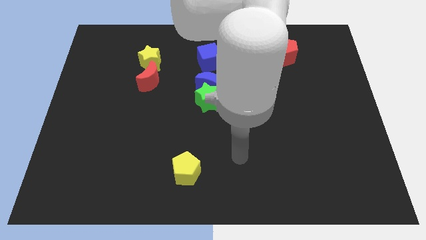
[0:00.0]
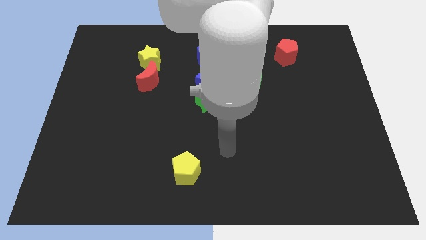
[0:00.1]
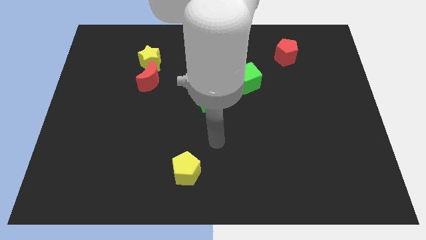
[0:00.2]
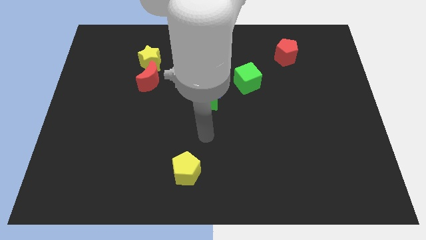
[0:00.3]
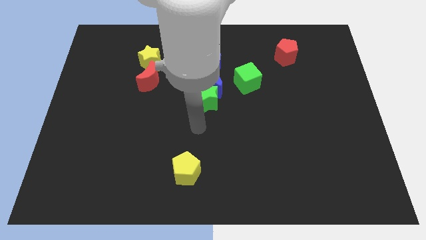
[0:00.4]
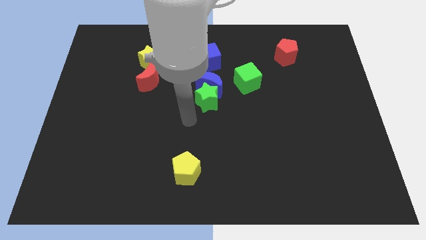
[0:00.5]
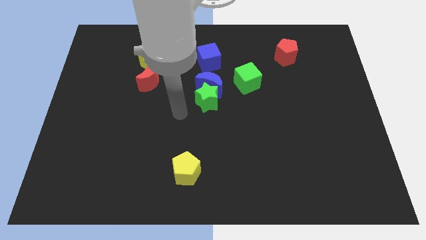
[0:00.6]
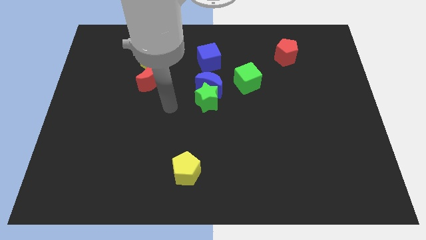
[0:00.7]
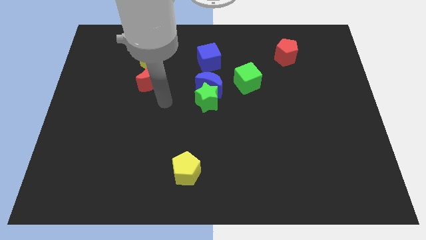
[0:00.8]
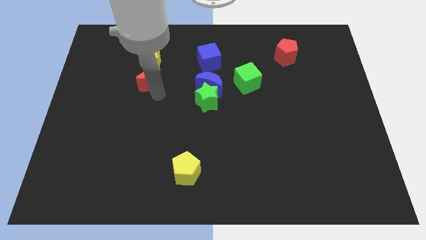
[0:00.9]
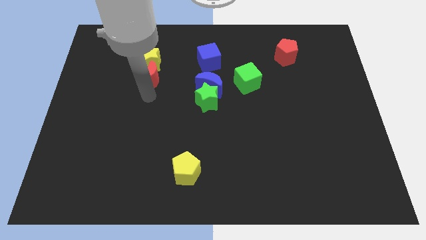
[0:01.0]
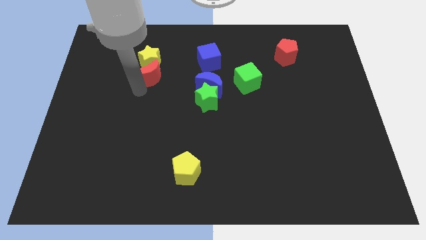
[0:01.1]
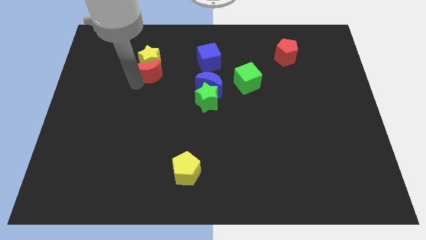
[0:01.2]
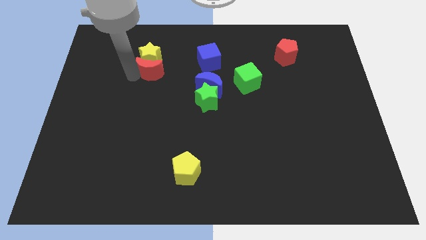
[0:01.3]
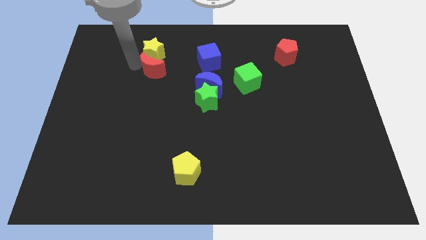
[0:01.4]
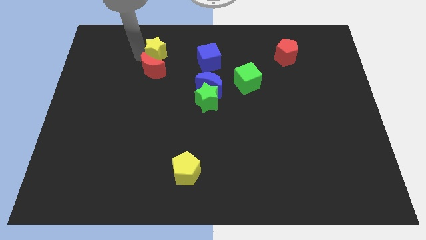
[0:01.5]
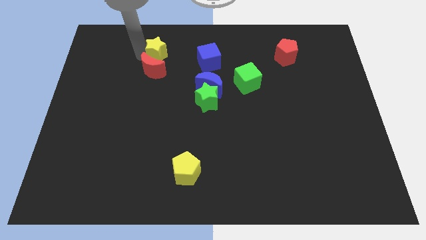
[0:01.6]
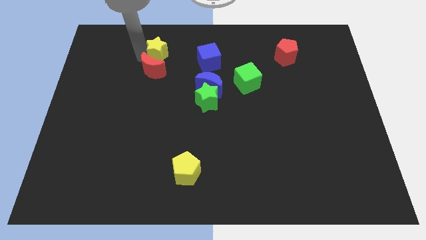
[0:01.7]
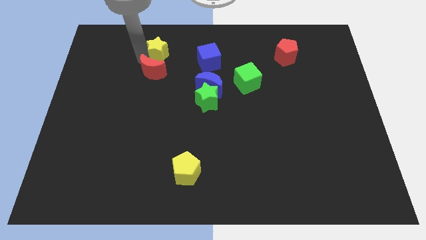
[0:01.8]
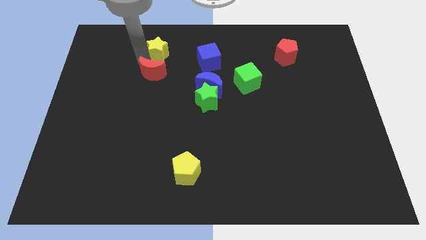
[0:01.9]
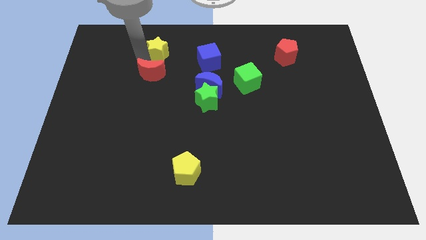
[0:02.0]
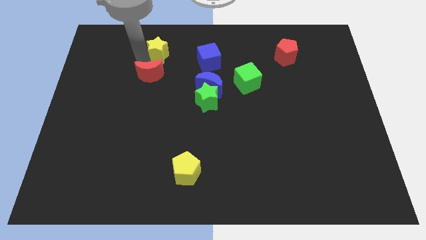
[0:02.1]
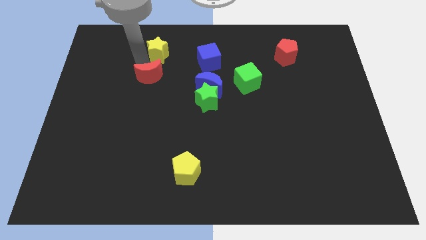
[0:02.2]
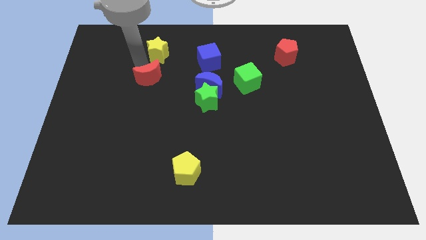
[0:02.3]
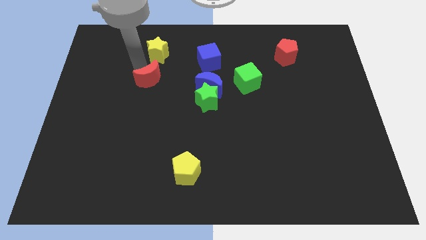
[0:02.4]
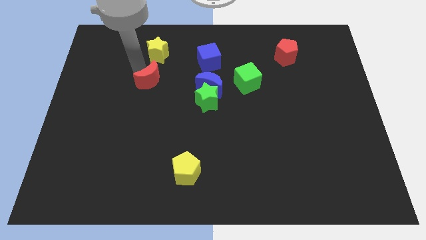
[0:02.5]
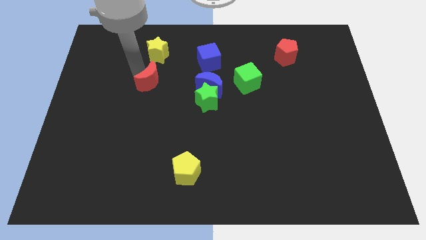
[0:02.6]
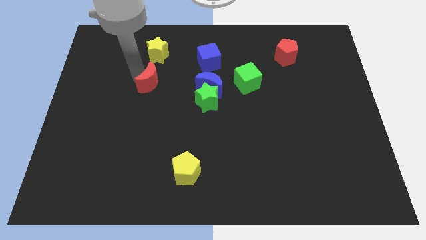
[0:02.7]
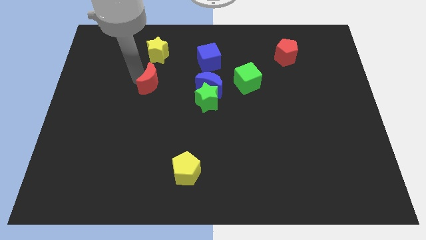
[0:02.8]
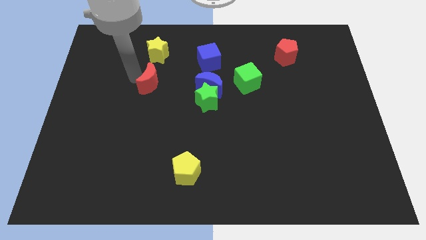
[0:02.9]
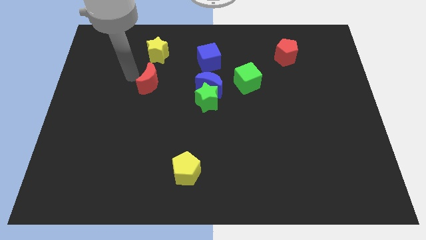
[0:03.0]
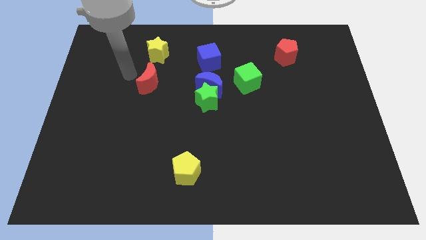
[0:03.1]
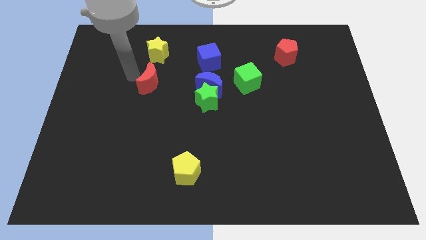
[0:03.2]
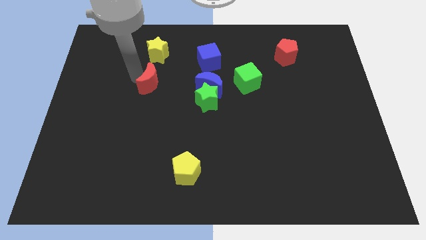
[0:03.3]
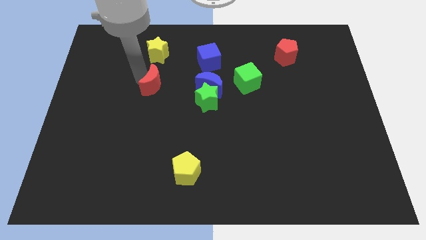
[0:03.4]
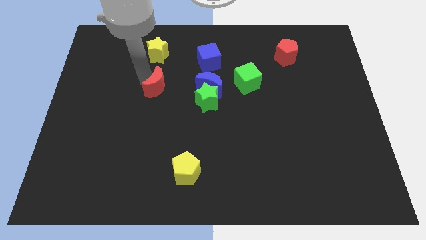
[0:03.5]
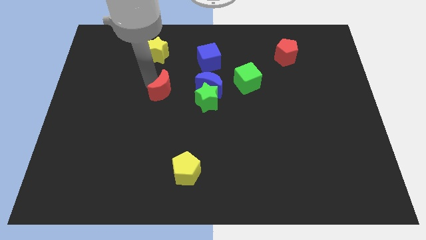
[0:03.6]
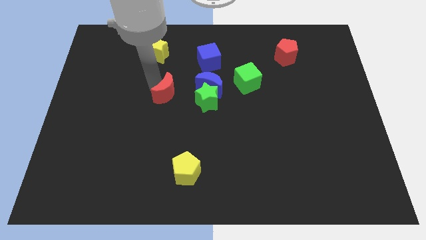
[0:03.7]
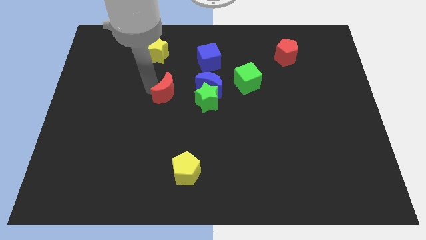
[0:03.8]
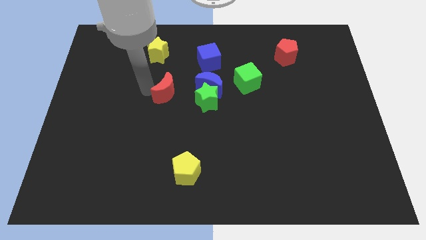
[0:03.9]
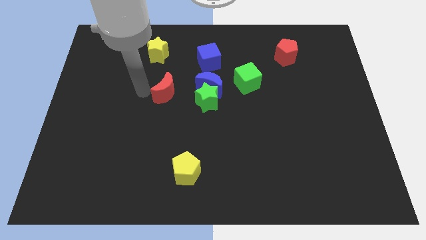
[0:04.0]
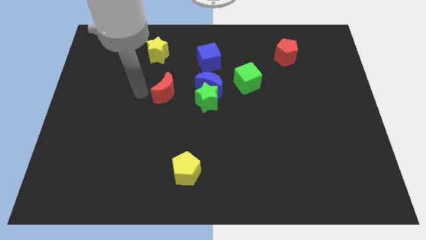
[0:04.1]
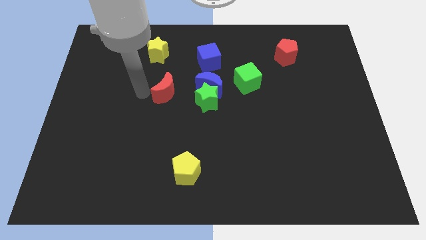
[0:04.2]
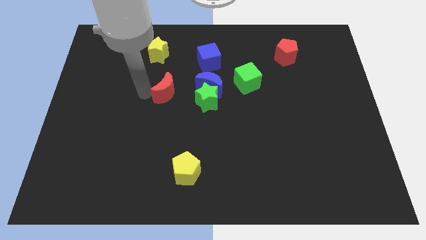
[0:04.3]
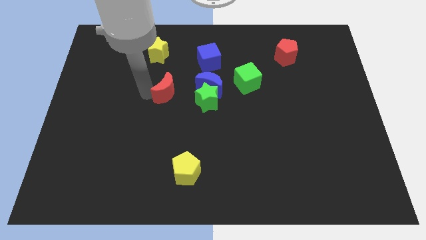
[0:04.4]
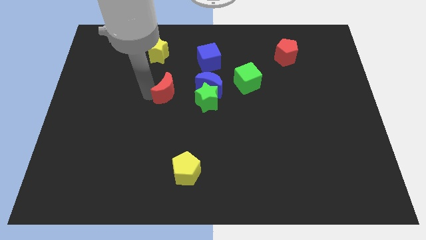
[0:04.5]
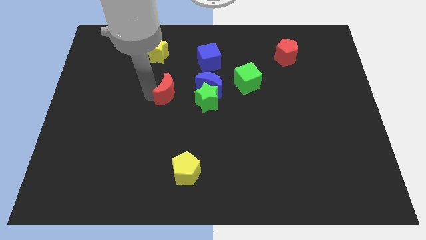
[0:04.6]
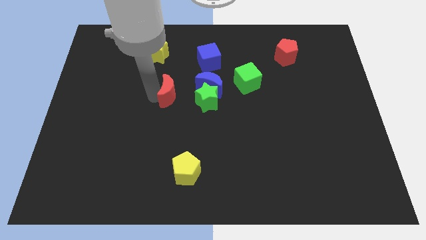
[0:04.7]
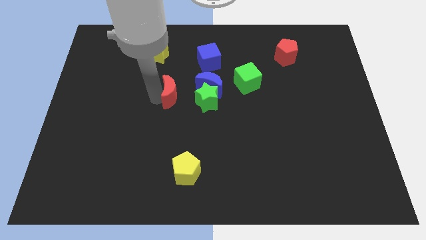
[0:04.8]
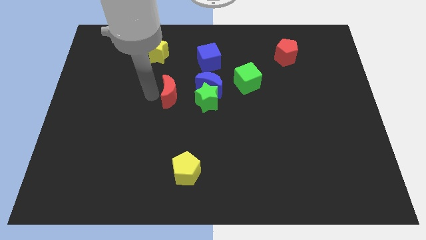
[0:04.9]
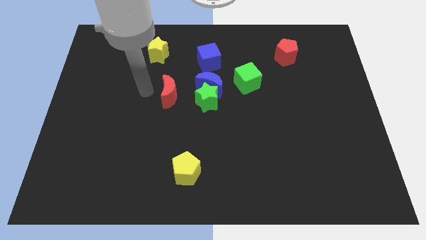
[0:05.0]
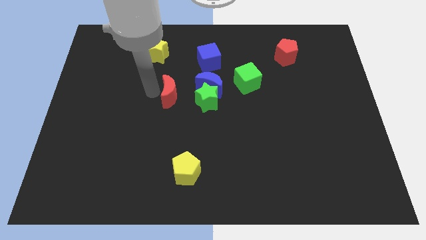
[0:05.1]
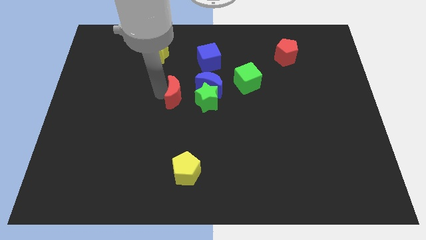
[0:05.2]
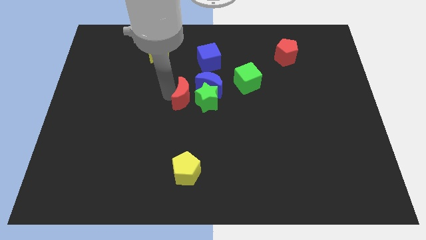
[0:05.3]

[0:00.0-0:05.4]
push the red moon close to the green star

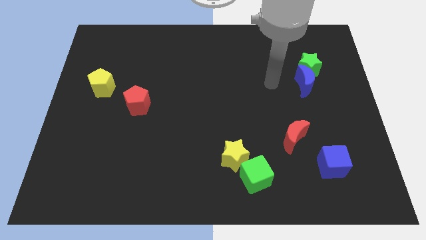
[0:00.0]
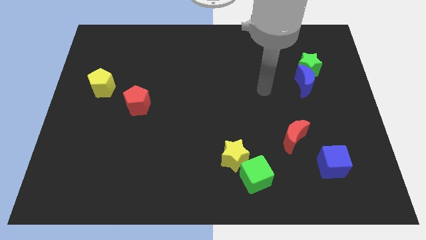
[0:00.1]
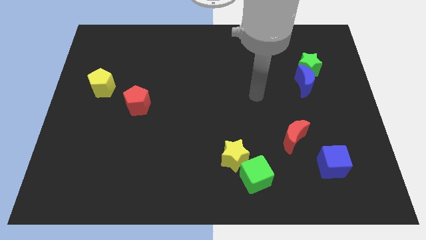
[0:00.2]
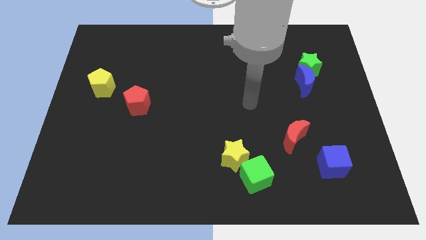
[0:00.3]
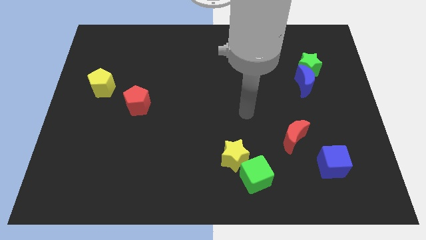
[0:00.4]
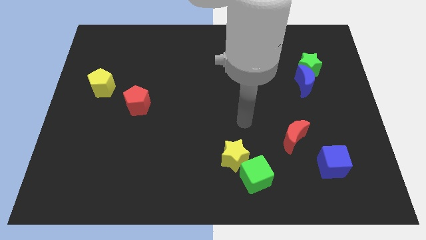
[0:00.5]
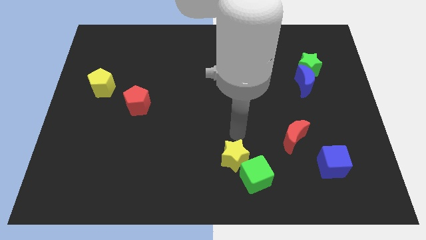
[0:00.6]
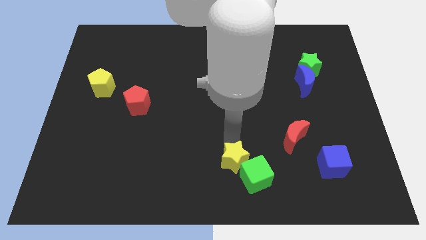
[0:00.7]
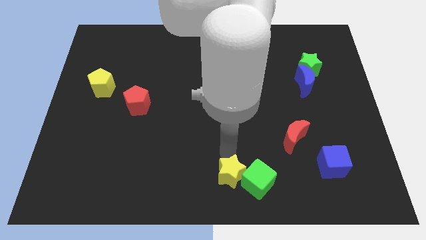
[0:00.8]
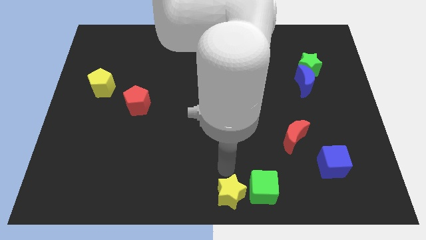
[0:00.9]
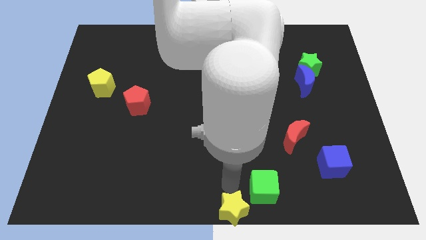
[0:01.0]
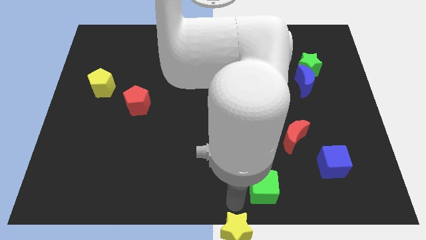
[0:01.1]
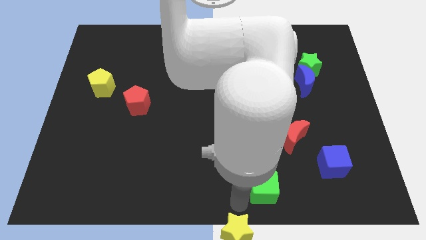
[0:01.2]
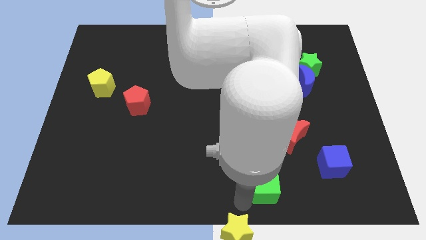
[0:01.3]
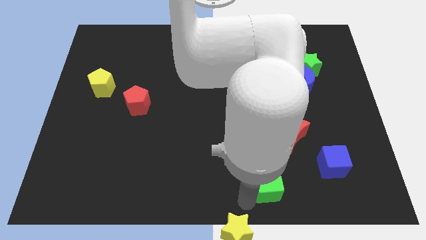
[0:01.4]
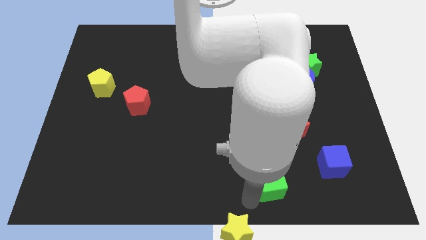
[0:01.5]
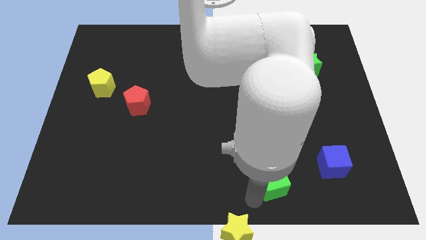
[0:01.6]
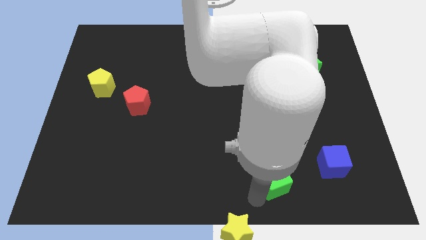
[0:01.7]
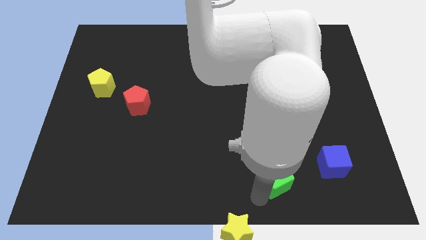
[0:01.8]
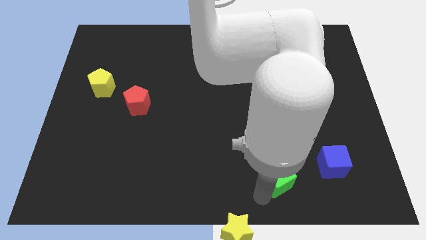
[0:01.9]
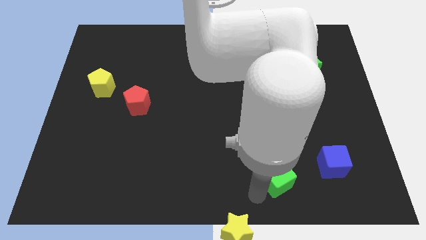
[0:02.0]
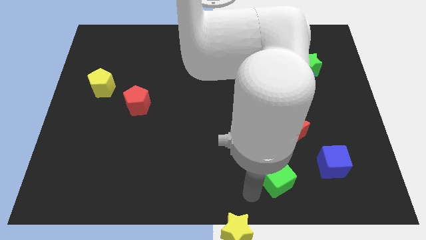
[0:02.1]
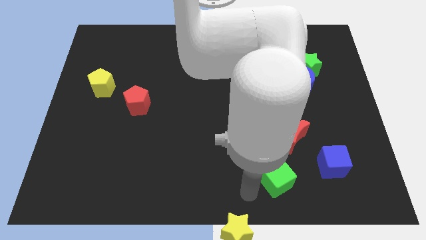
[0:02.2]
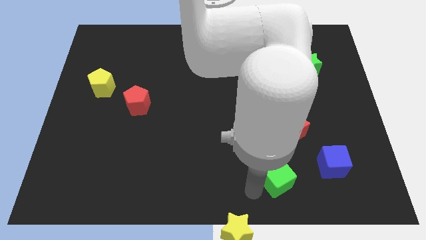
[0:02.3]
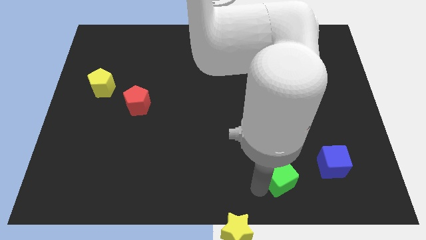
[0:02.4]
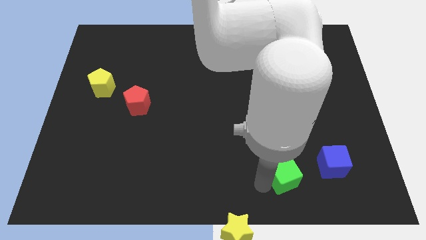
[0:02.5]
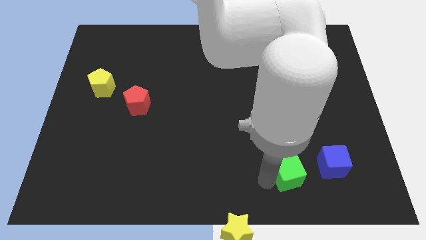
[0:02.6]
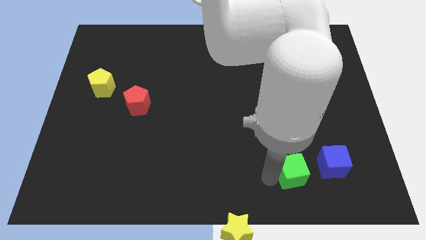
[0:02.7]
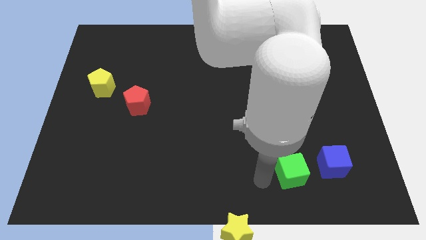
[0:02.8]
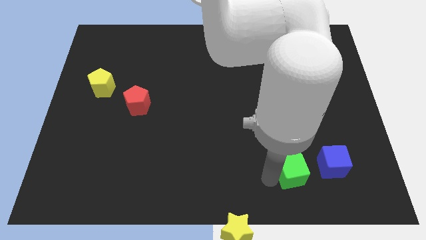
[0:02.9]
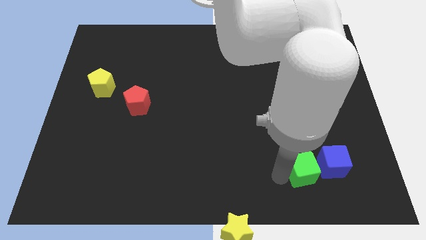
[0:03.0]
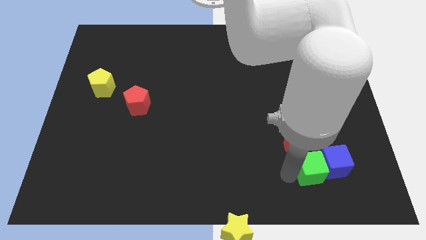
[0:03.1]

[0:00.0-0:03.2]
move the green cube close to the blue cube
